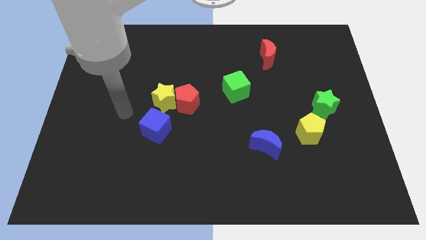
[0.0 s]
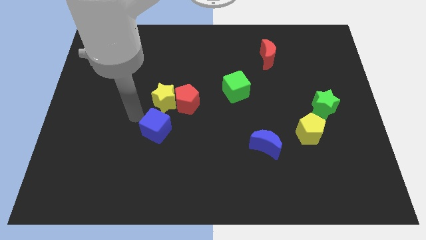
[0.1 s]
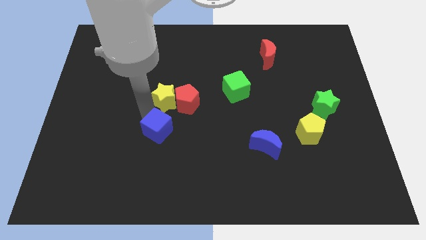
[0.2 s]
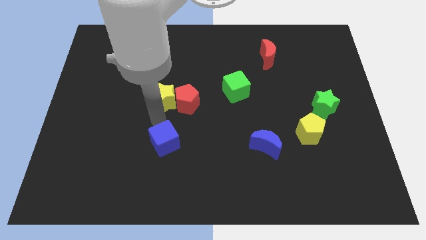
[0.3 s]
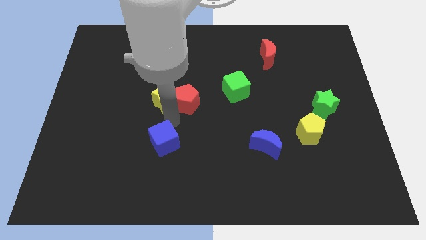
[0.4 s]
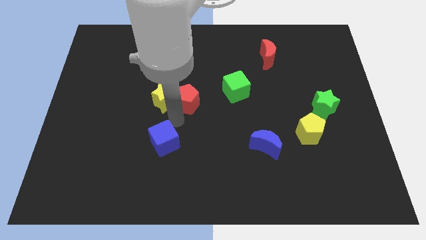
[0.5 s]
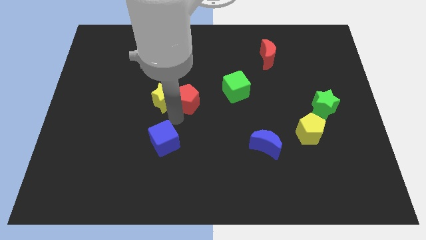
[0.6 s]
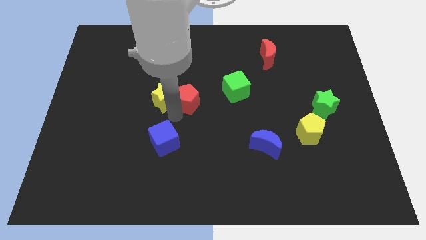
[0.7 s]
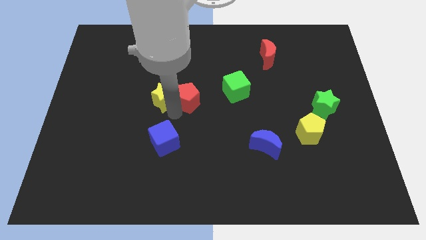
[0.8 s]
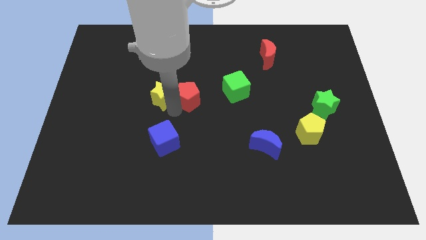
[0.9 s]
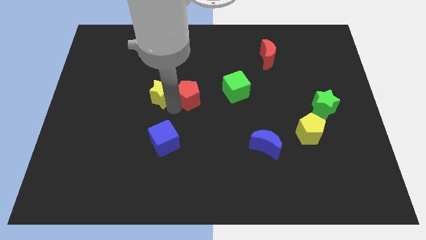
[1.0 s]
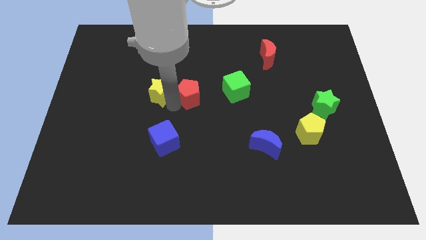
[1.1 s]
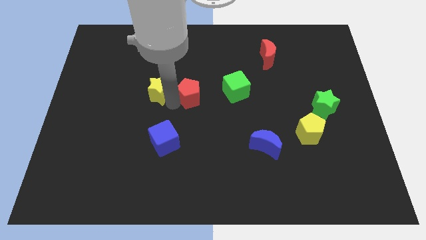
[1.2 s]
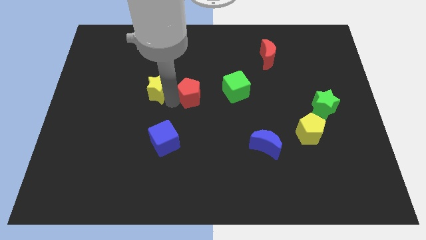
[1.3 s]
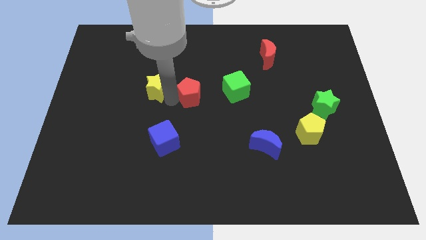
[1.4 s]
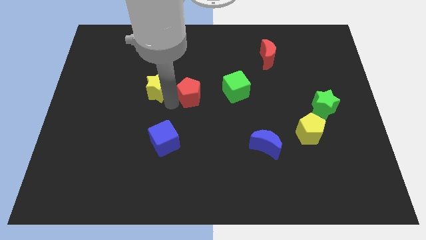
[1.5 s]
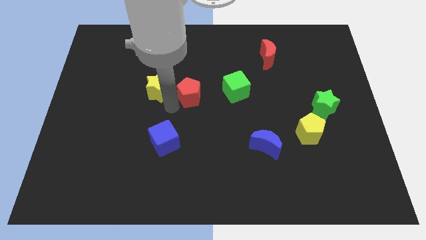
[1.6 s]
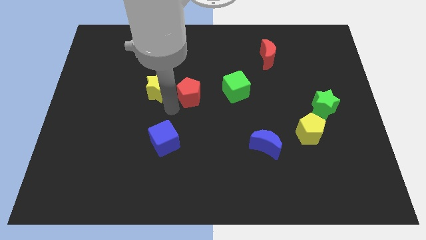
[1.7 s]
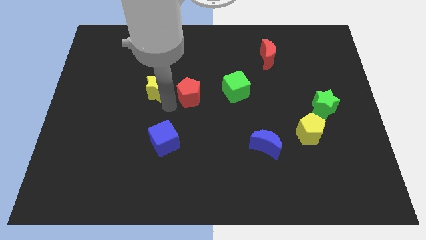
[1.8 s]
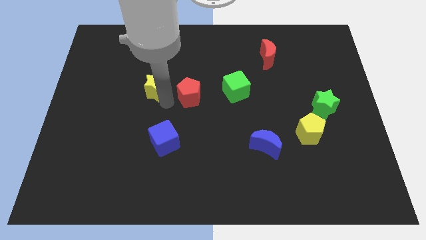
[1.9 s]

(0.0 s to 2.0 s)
separate the yellow star from the red pentagon and blue cube

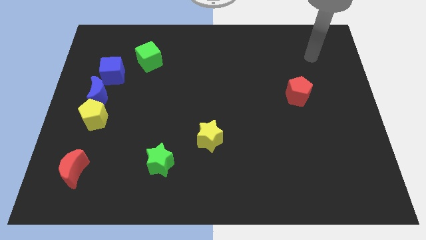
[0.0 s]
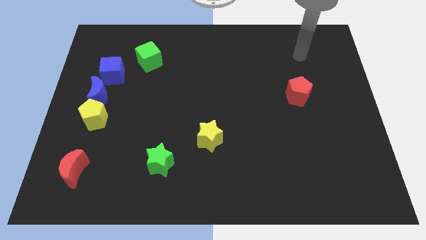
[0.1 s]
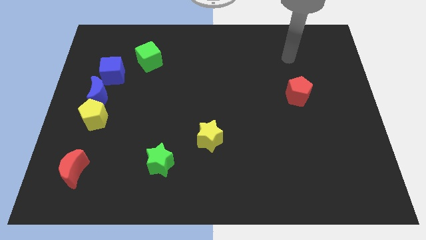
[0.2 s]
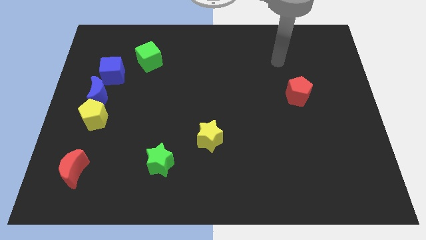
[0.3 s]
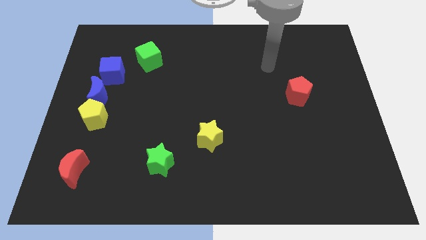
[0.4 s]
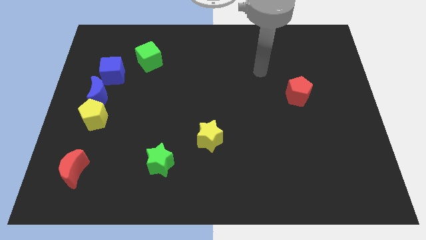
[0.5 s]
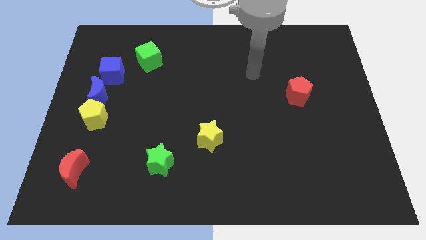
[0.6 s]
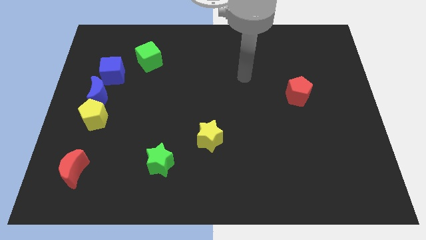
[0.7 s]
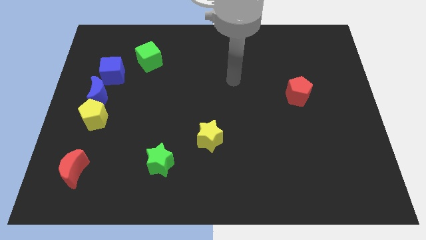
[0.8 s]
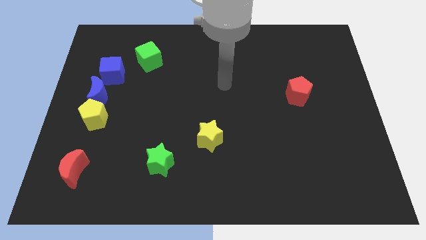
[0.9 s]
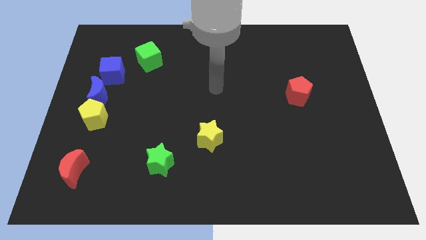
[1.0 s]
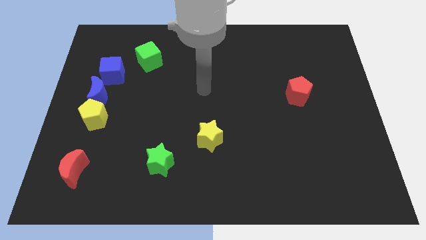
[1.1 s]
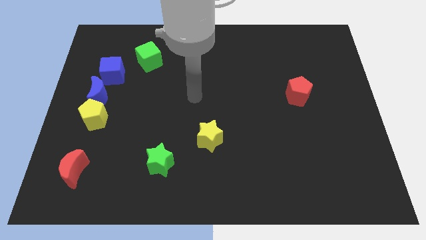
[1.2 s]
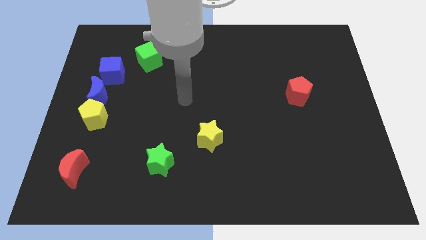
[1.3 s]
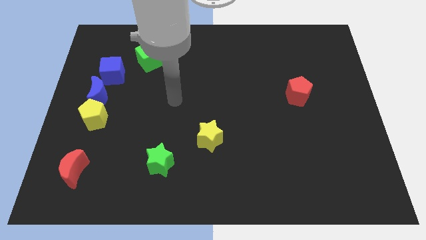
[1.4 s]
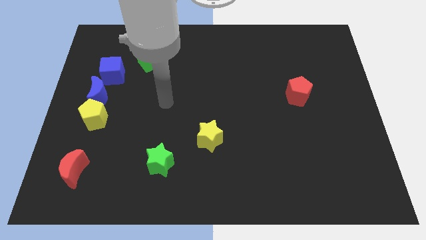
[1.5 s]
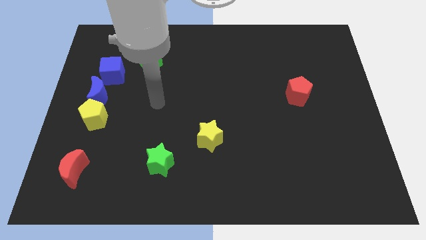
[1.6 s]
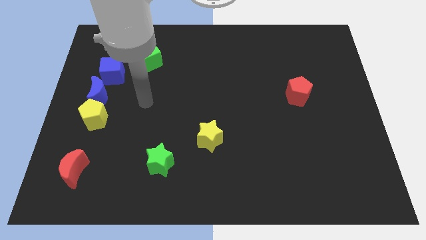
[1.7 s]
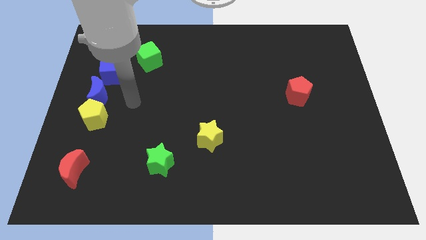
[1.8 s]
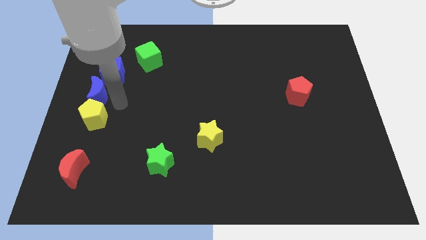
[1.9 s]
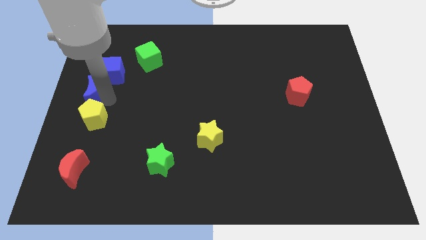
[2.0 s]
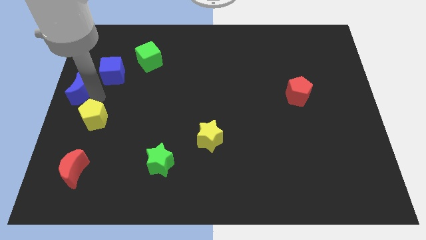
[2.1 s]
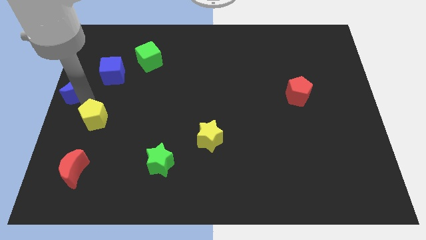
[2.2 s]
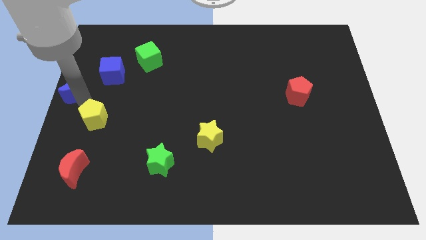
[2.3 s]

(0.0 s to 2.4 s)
separate the yellow pentagon from the blue moon

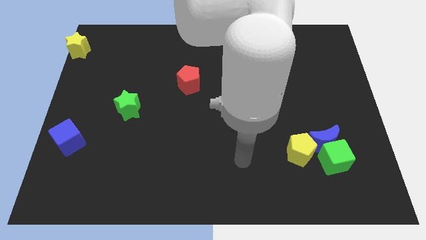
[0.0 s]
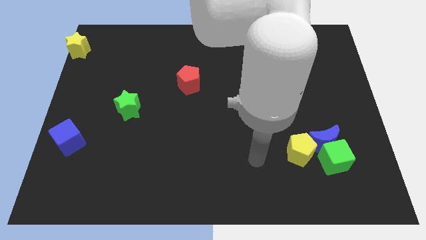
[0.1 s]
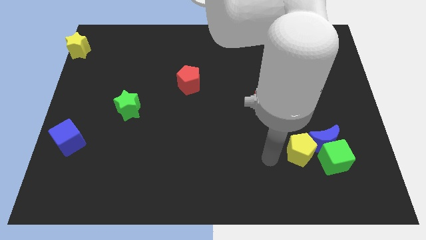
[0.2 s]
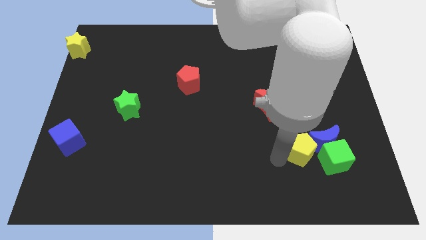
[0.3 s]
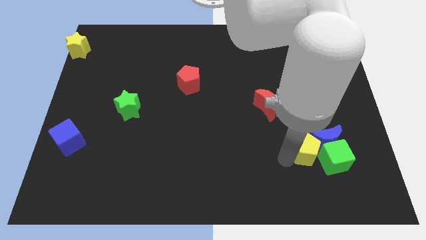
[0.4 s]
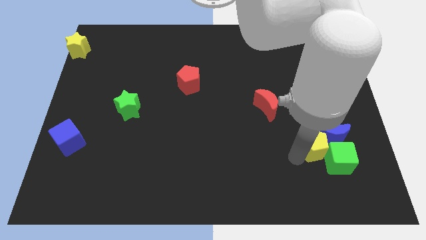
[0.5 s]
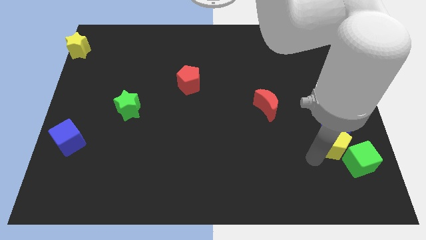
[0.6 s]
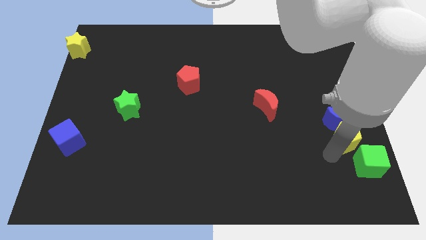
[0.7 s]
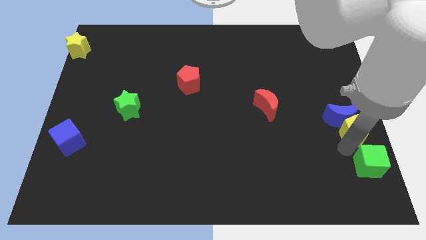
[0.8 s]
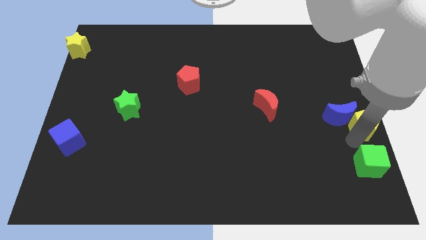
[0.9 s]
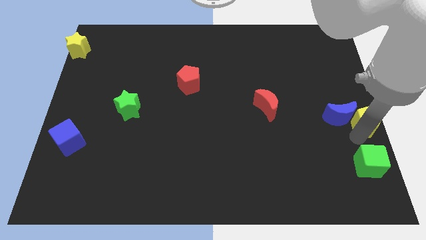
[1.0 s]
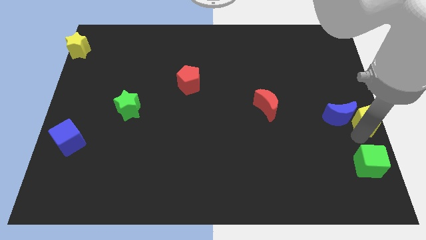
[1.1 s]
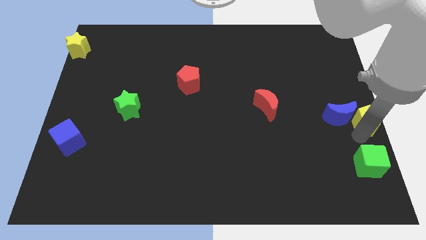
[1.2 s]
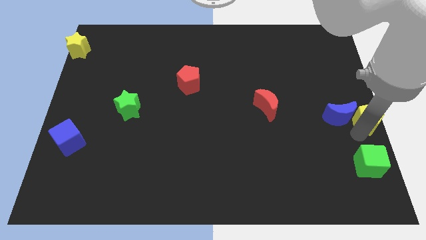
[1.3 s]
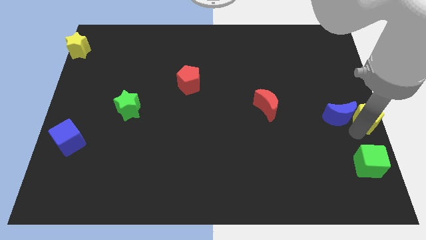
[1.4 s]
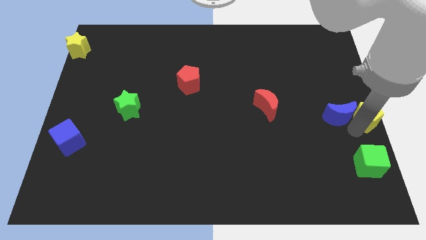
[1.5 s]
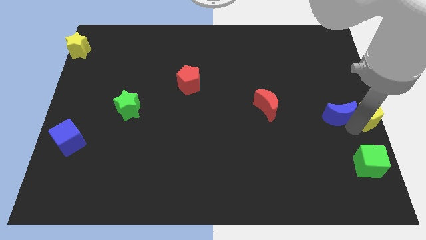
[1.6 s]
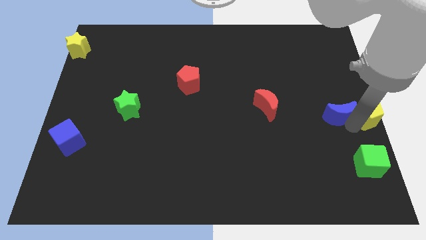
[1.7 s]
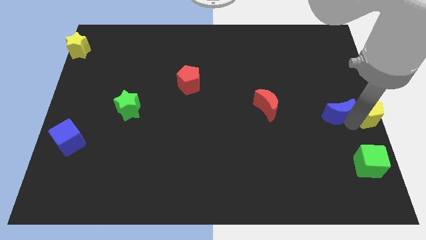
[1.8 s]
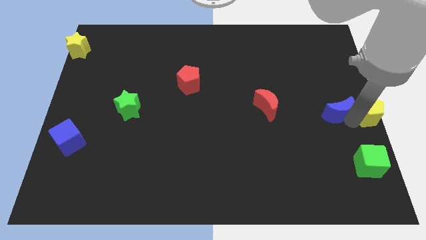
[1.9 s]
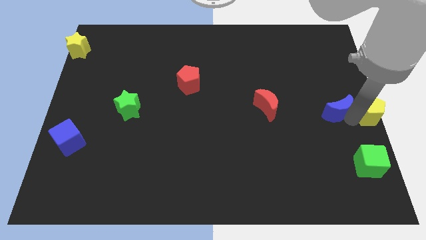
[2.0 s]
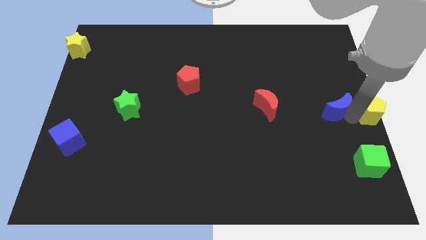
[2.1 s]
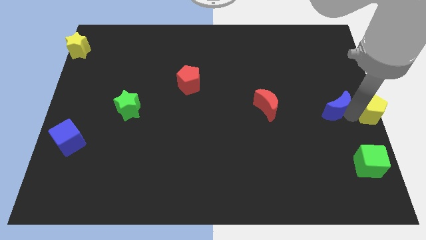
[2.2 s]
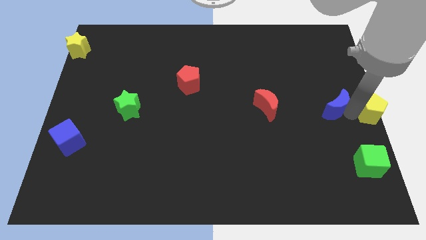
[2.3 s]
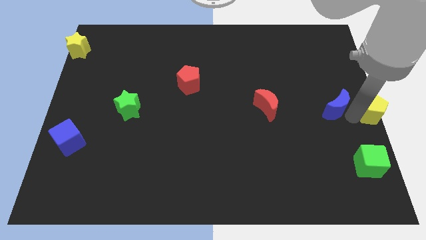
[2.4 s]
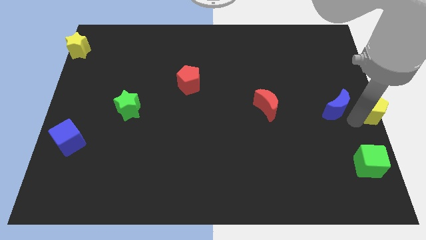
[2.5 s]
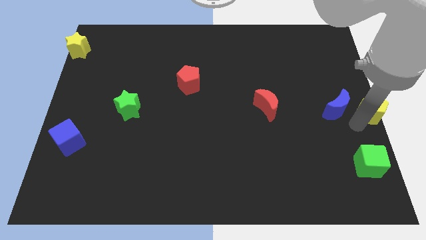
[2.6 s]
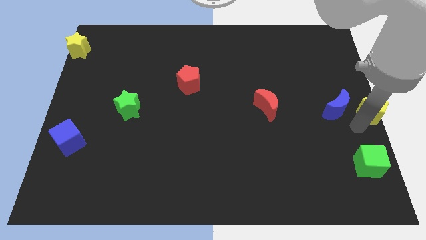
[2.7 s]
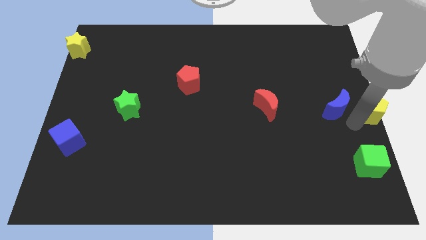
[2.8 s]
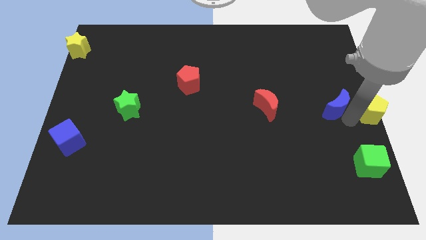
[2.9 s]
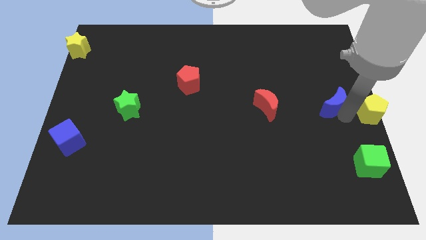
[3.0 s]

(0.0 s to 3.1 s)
move the blue moon away from the green cube and yellow pentagon

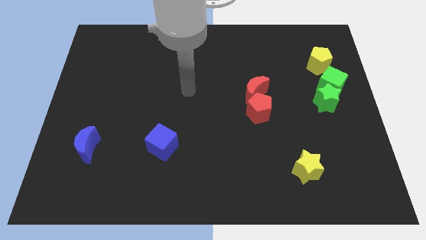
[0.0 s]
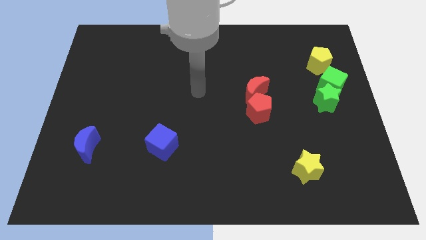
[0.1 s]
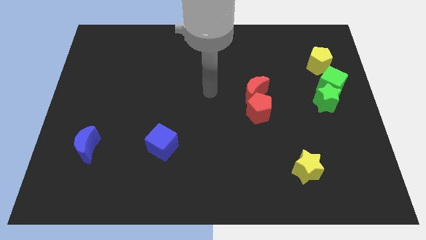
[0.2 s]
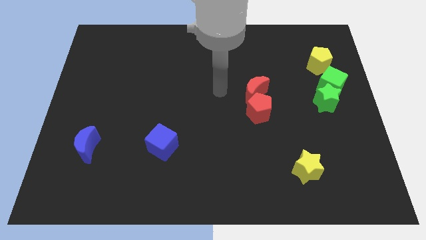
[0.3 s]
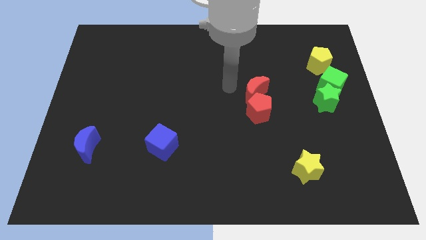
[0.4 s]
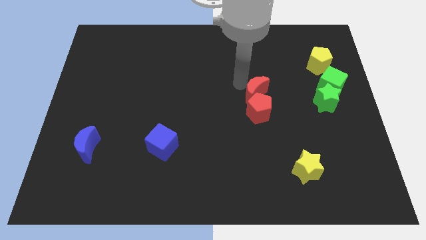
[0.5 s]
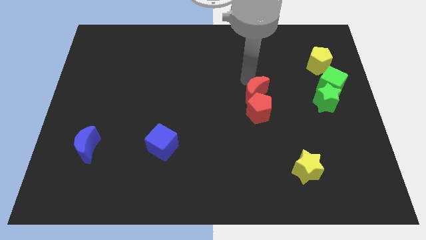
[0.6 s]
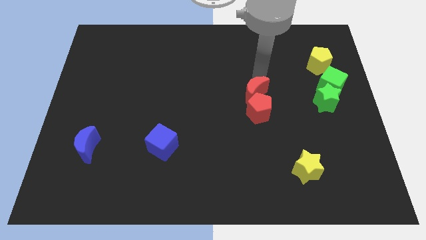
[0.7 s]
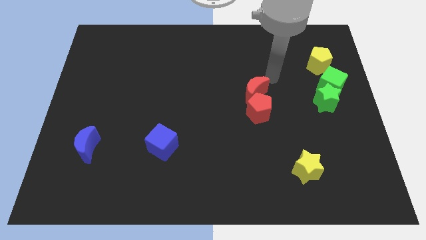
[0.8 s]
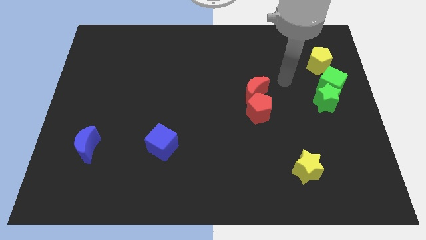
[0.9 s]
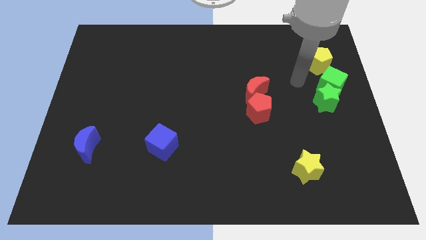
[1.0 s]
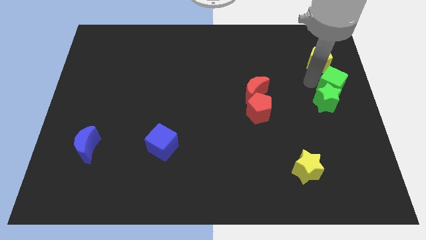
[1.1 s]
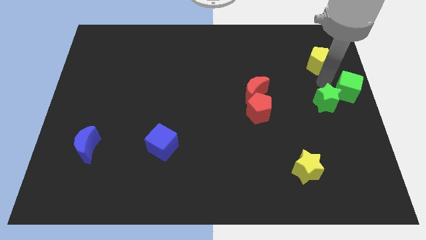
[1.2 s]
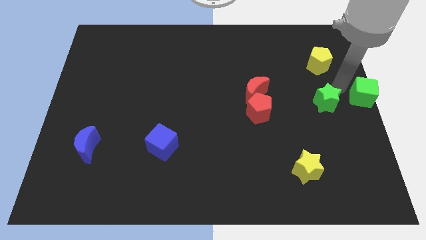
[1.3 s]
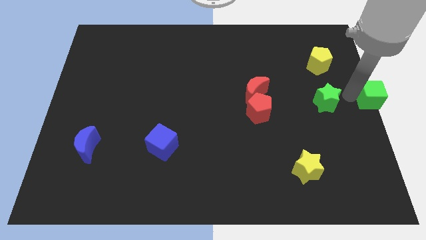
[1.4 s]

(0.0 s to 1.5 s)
pull the green star apart from the green cube

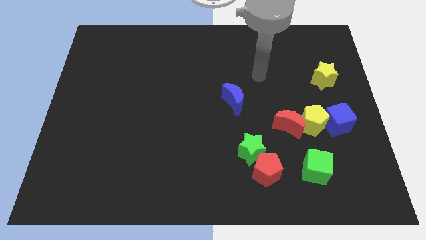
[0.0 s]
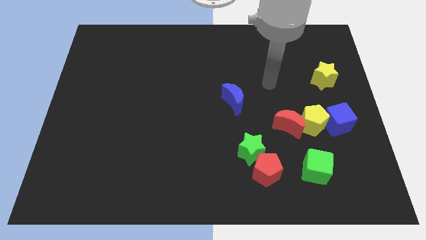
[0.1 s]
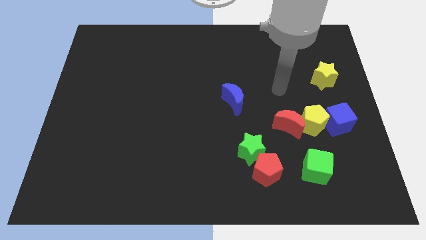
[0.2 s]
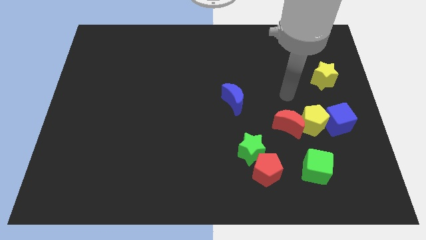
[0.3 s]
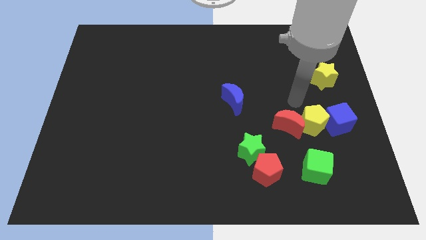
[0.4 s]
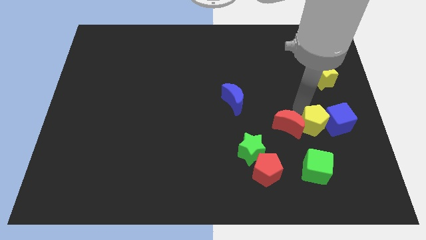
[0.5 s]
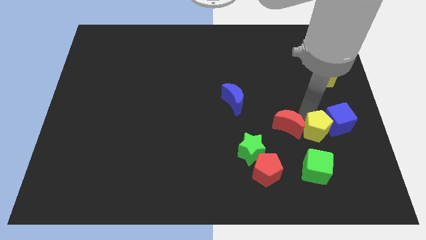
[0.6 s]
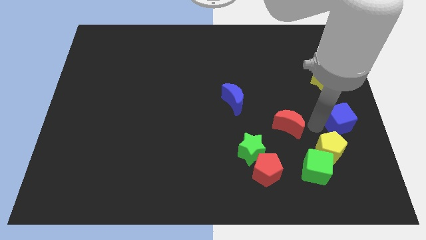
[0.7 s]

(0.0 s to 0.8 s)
move the red moon away from the yellow pentagon
